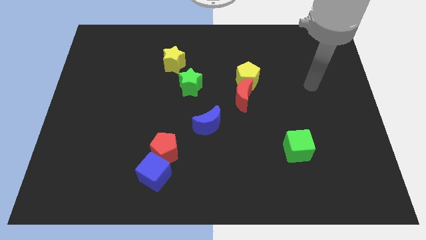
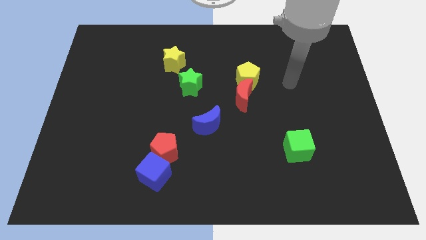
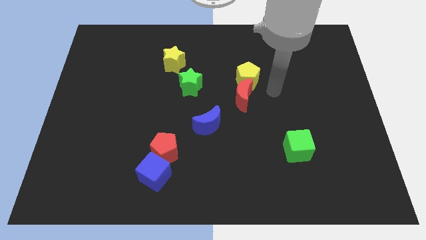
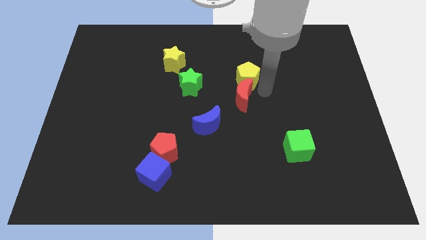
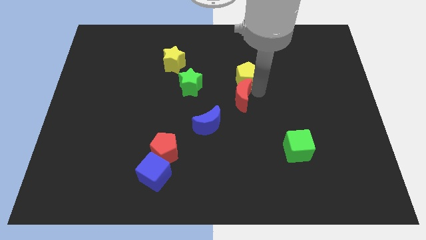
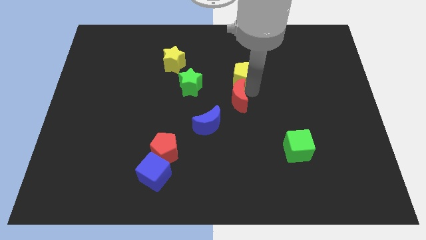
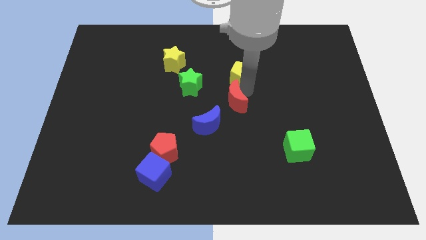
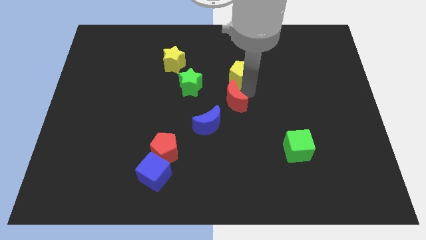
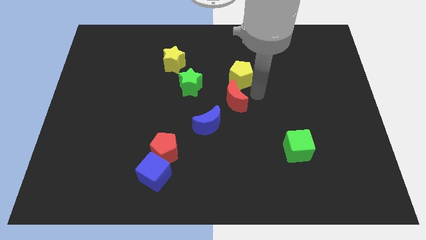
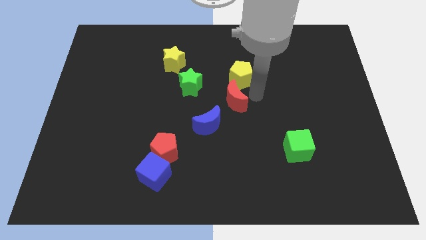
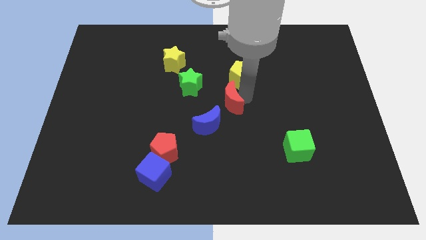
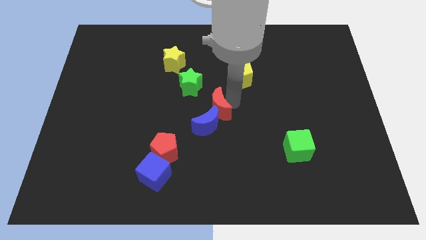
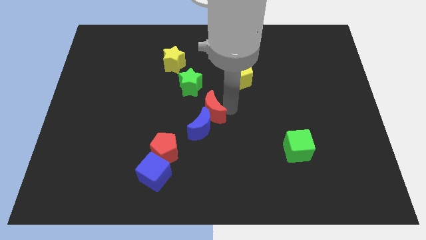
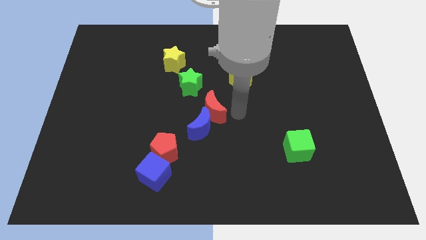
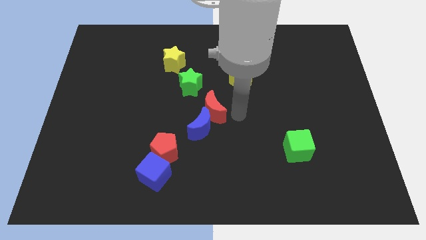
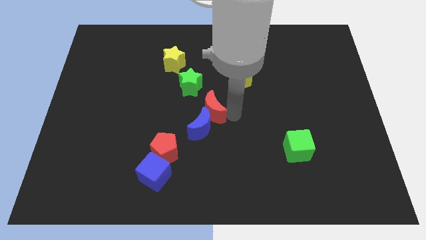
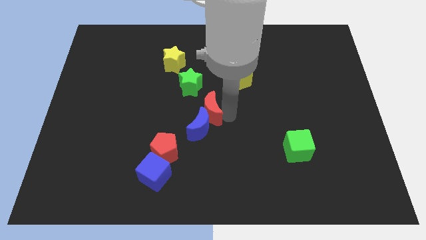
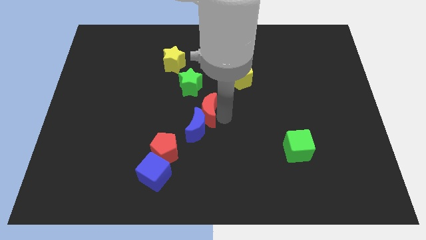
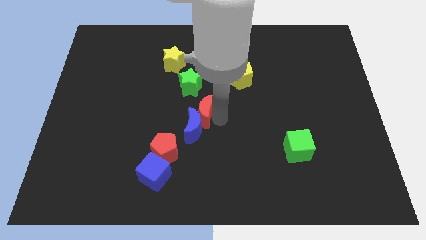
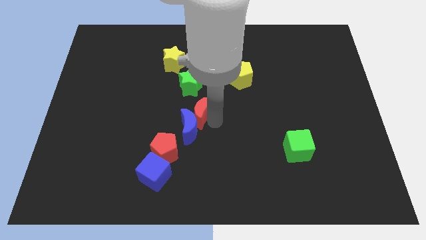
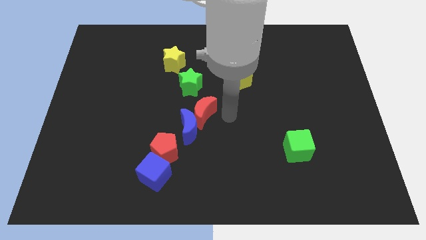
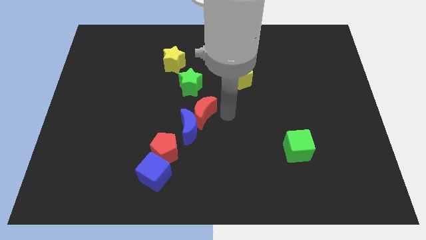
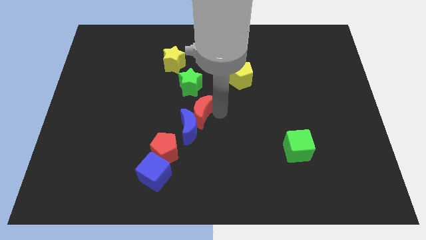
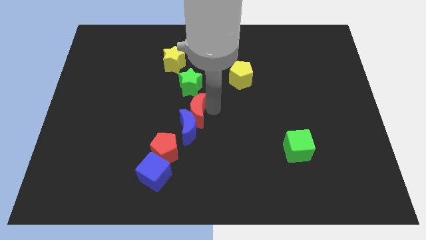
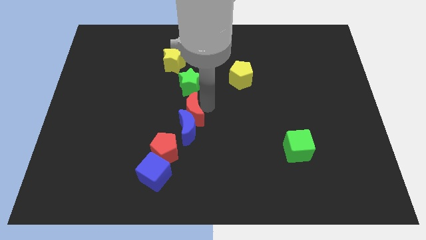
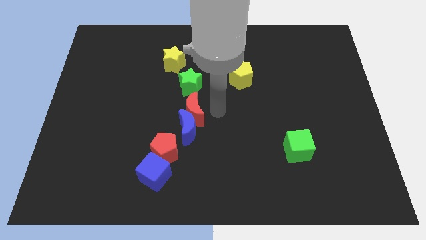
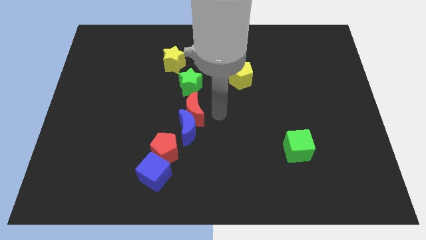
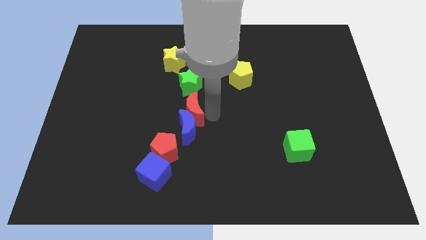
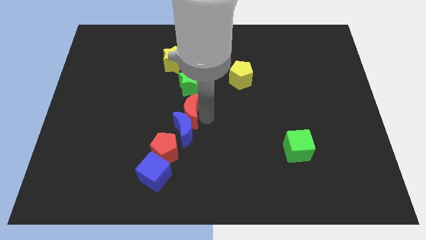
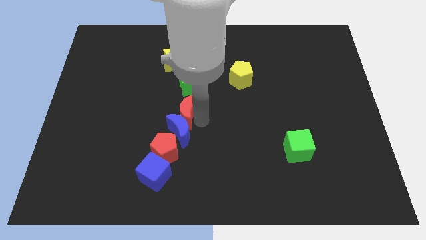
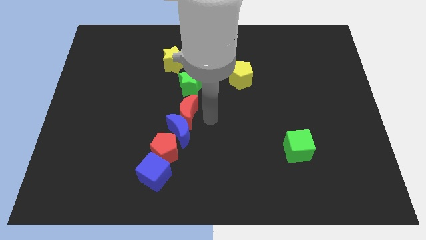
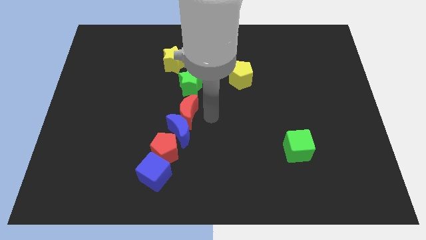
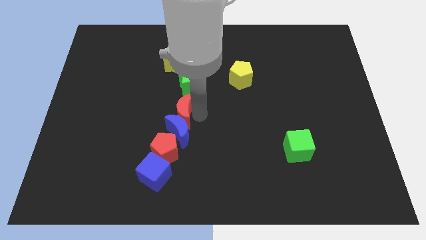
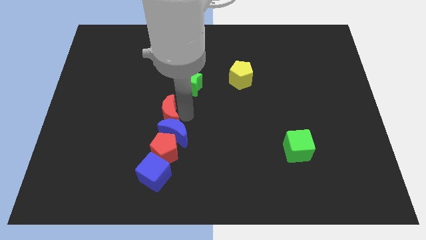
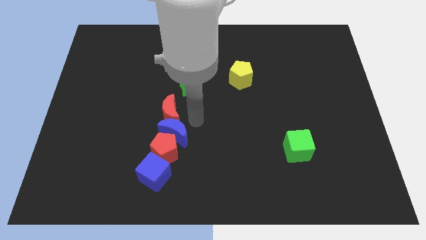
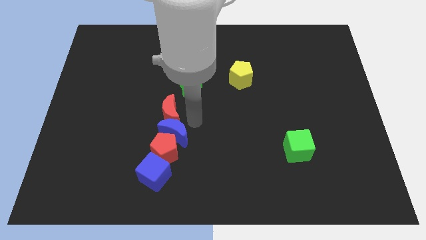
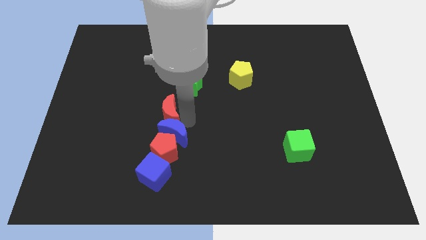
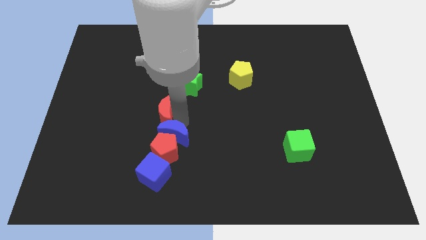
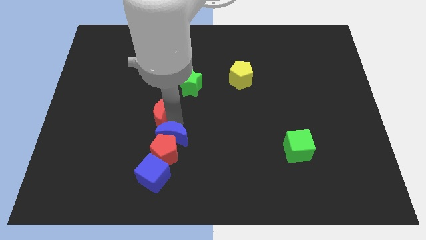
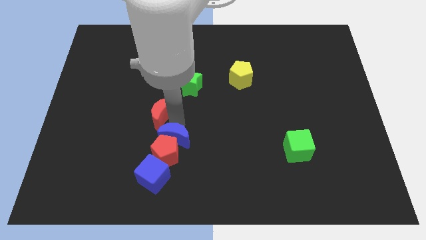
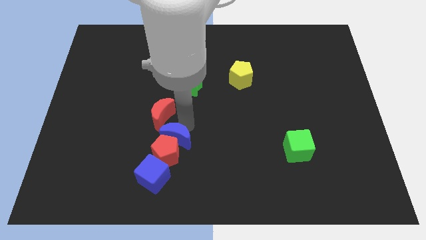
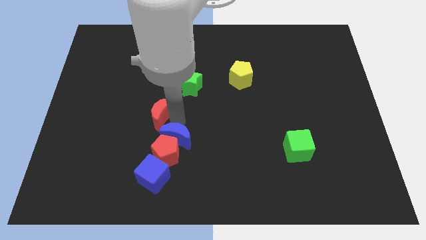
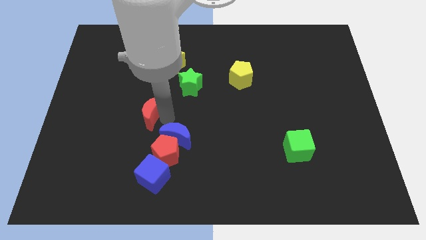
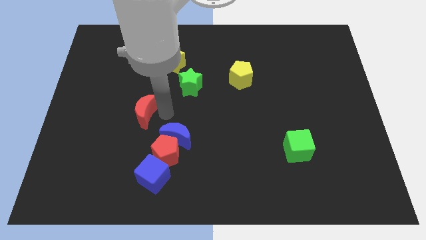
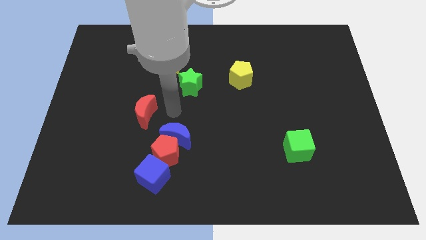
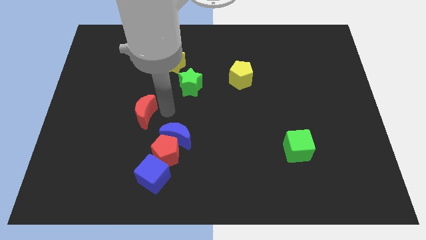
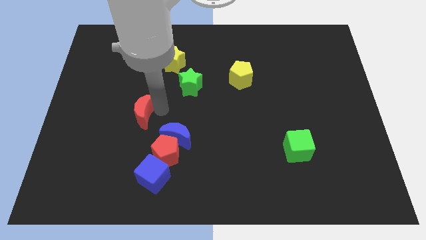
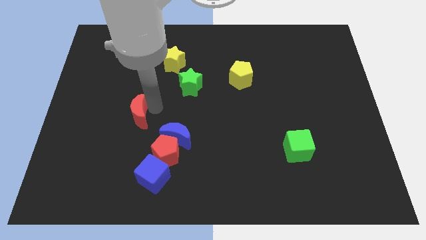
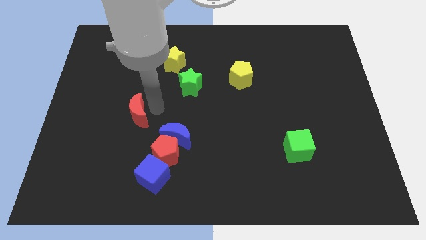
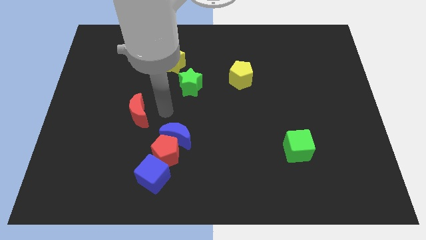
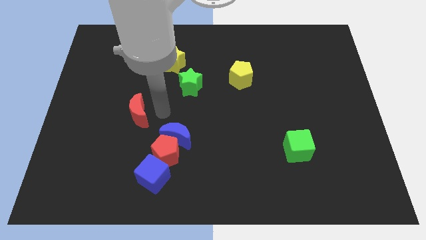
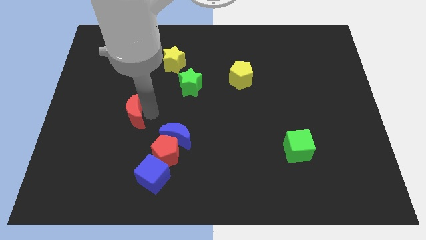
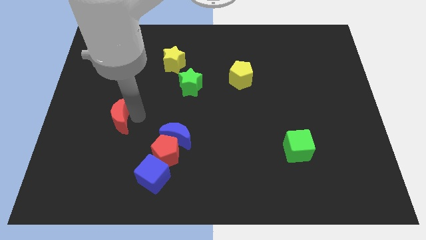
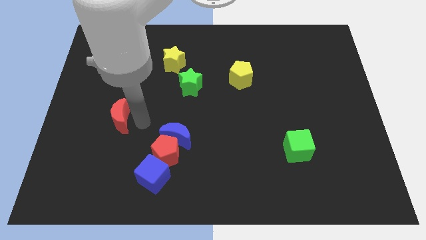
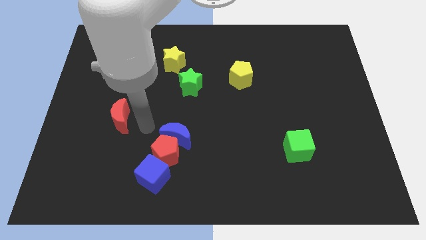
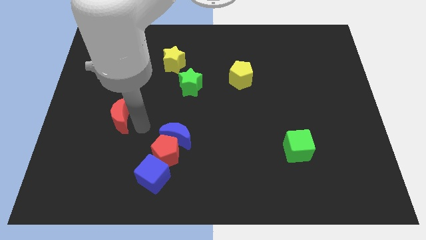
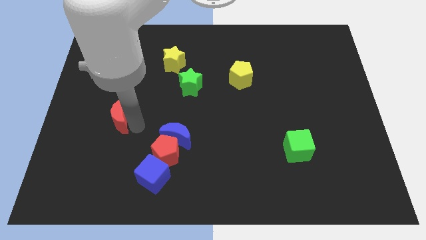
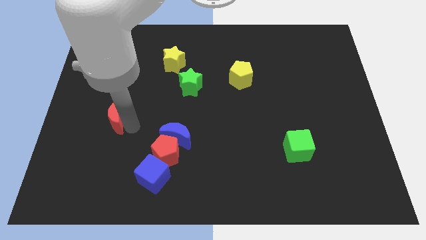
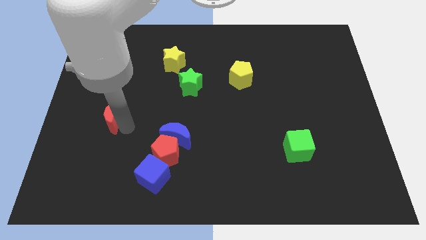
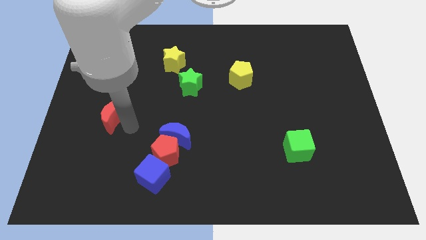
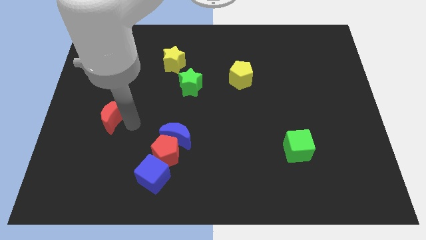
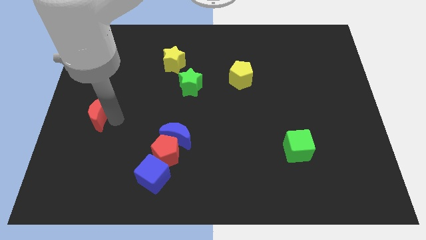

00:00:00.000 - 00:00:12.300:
slide the red moon to the left side
